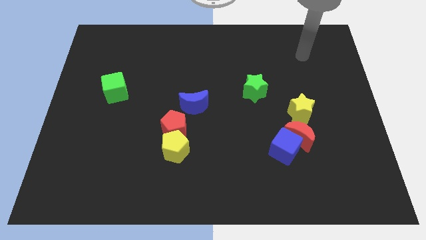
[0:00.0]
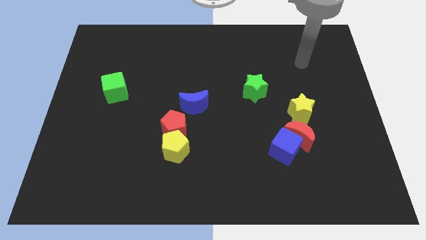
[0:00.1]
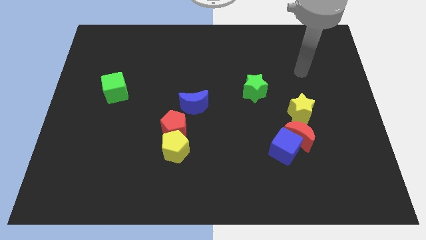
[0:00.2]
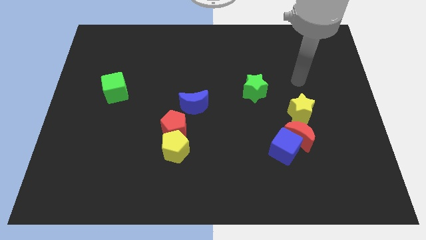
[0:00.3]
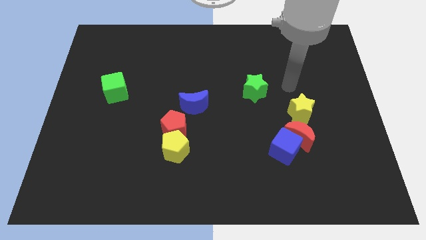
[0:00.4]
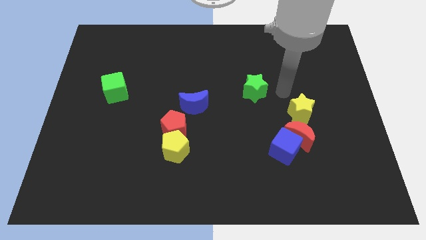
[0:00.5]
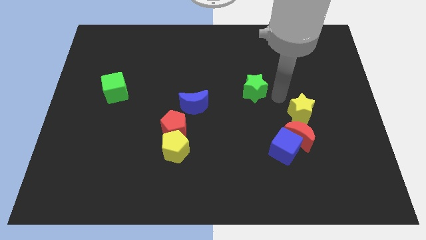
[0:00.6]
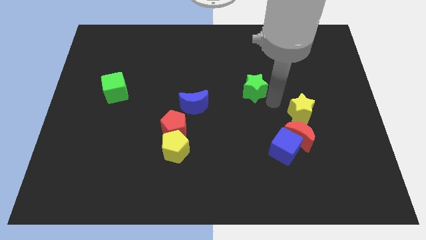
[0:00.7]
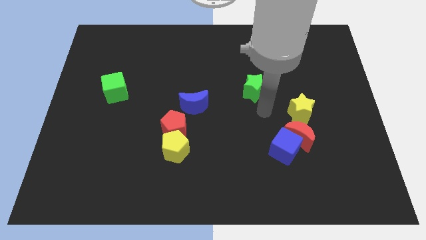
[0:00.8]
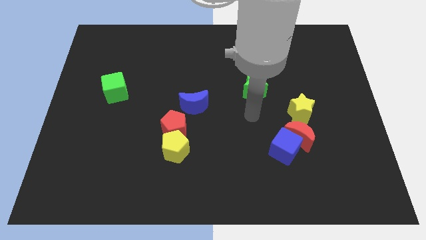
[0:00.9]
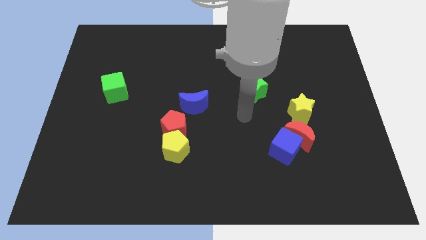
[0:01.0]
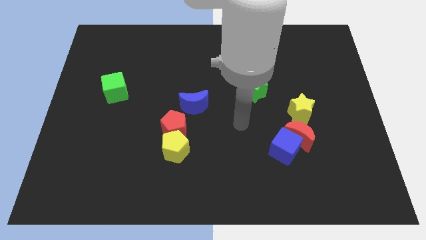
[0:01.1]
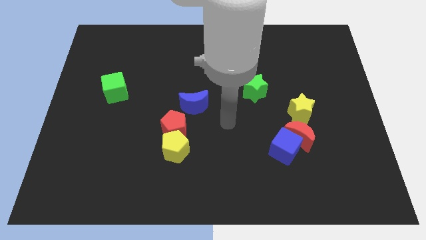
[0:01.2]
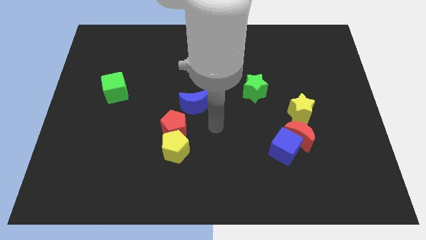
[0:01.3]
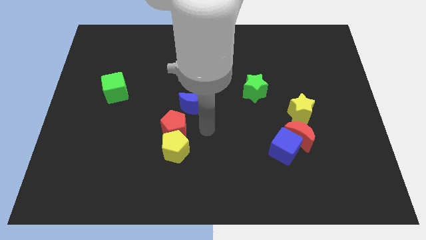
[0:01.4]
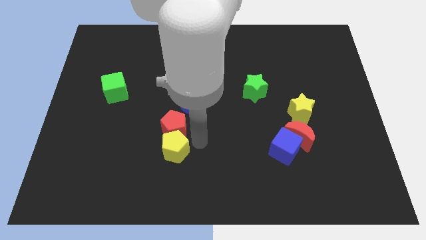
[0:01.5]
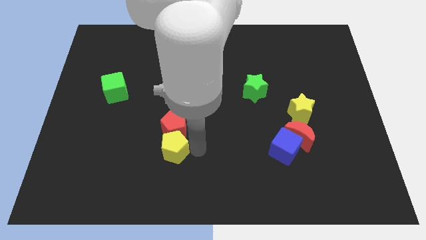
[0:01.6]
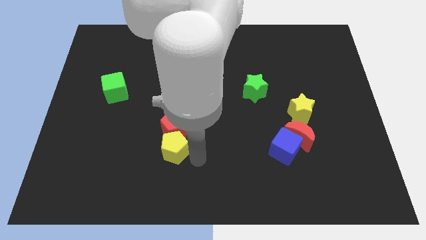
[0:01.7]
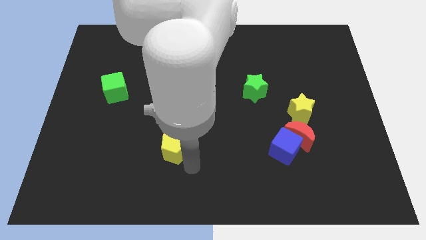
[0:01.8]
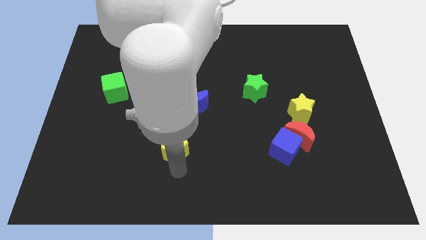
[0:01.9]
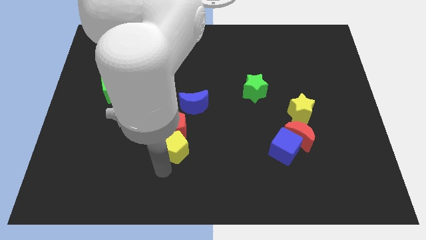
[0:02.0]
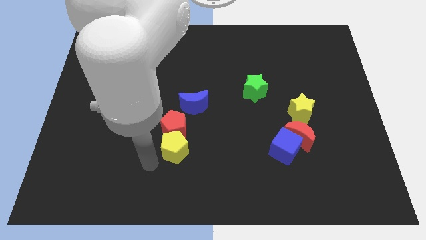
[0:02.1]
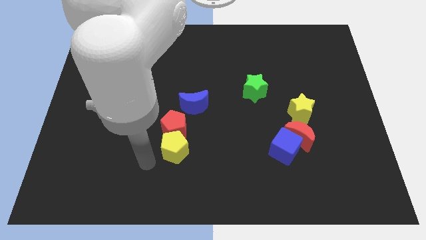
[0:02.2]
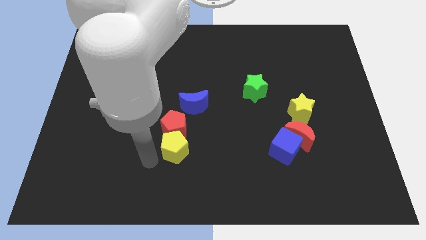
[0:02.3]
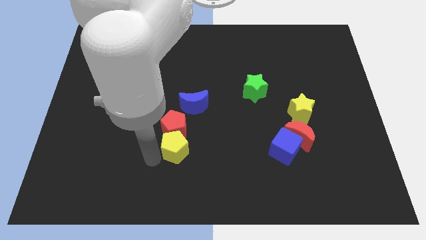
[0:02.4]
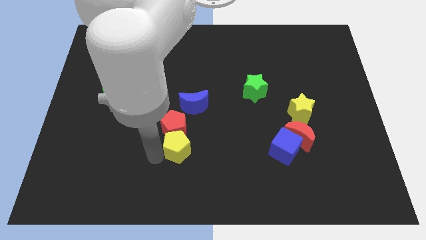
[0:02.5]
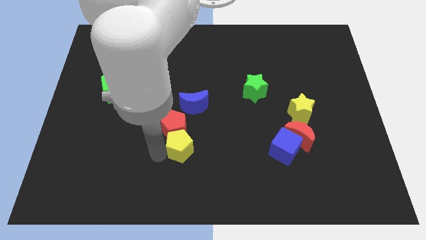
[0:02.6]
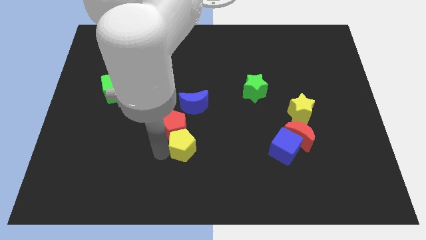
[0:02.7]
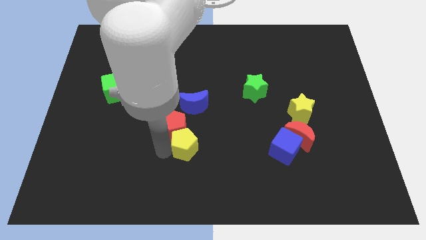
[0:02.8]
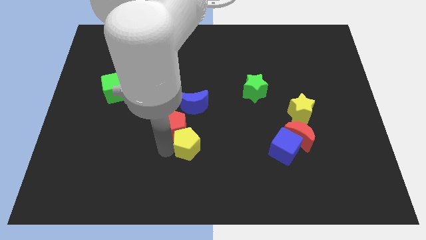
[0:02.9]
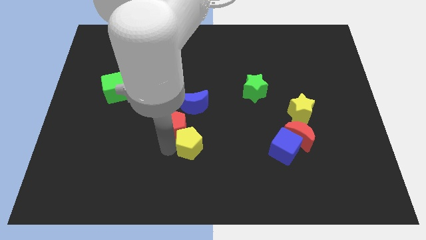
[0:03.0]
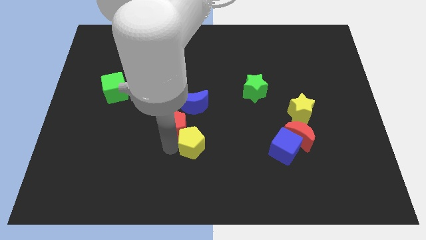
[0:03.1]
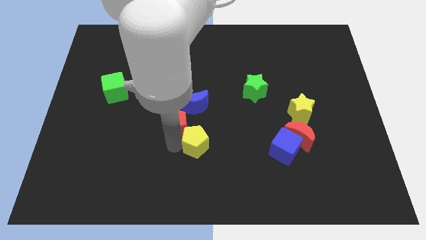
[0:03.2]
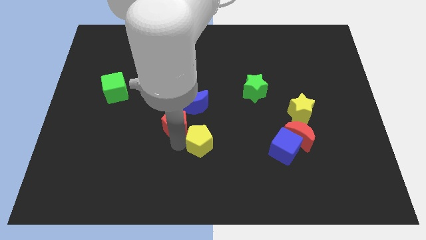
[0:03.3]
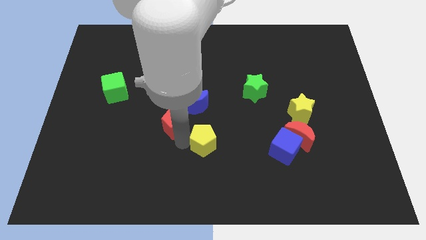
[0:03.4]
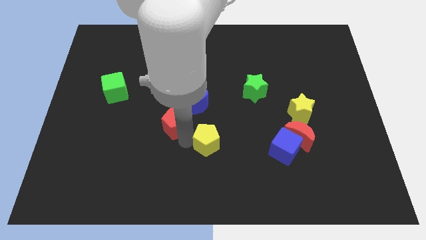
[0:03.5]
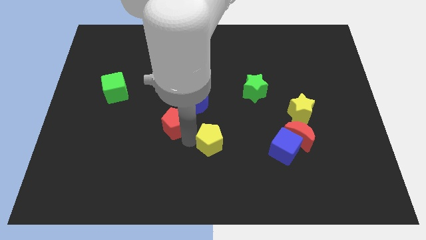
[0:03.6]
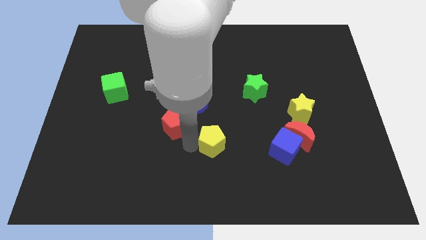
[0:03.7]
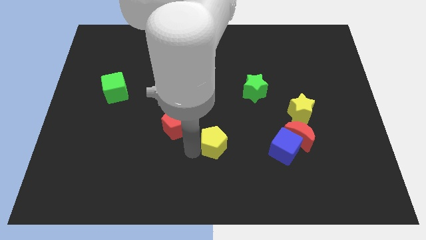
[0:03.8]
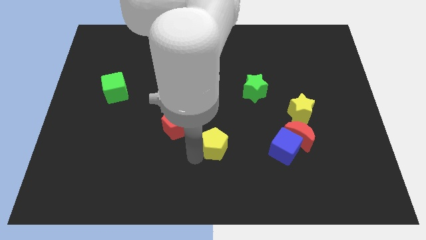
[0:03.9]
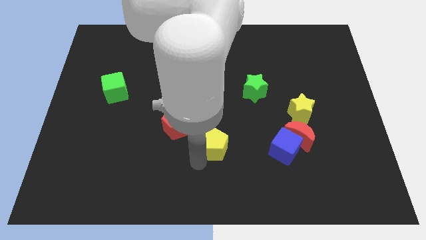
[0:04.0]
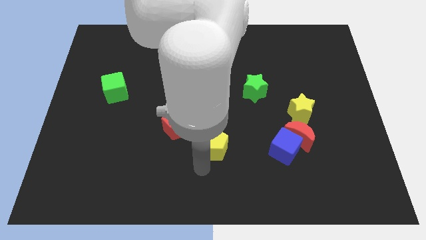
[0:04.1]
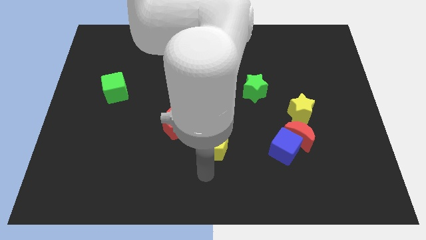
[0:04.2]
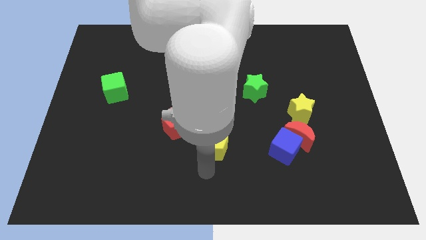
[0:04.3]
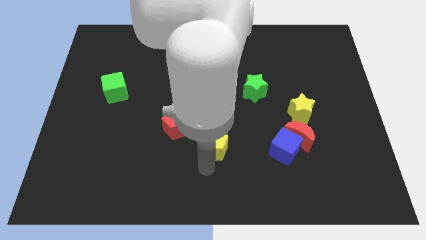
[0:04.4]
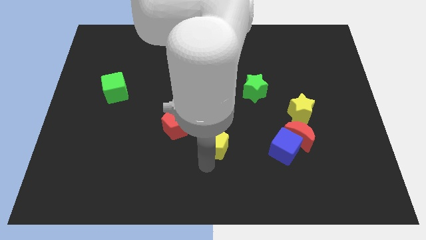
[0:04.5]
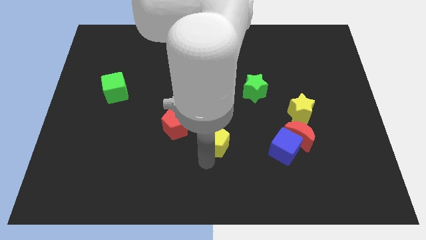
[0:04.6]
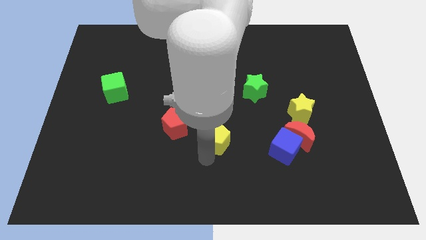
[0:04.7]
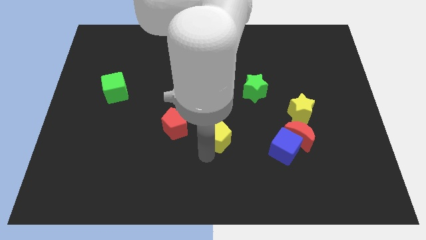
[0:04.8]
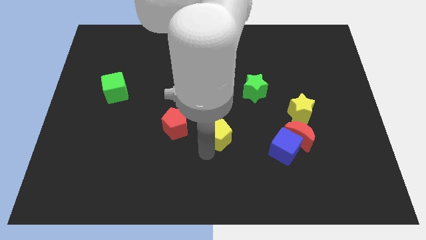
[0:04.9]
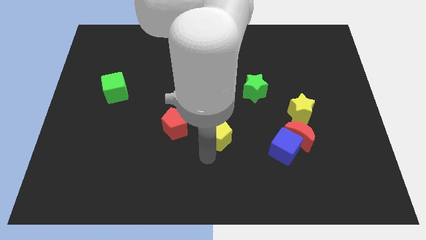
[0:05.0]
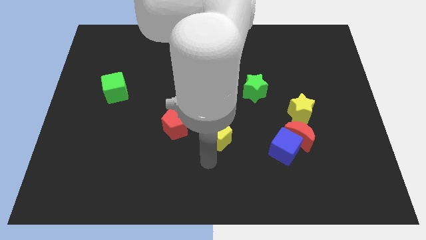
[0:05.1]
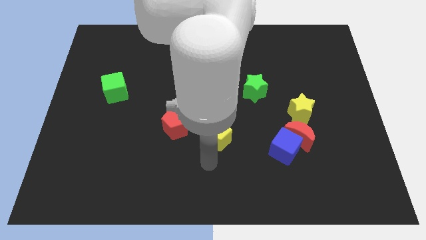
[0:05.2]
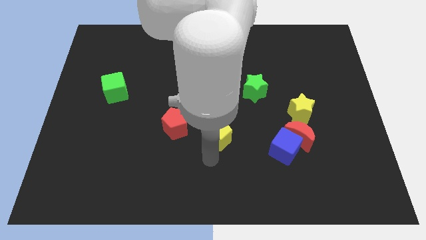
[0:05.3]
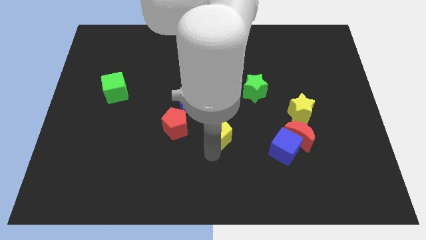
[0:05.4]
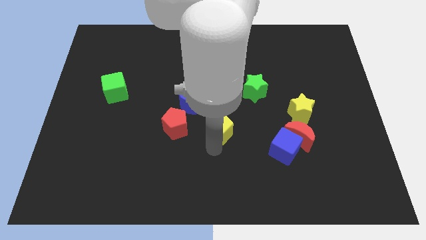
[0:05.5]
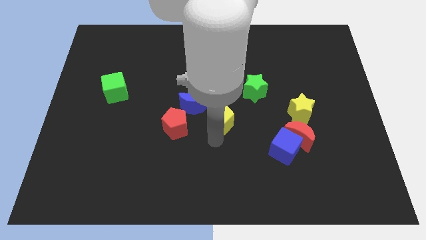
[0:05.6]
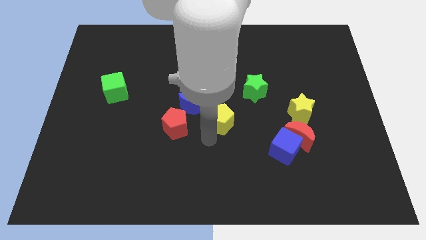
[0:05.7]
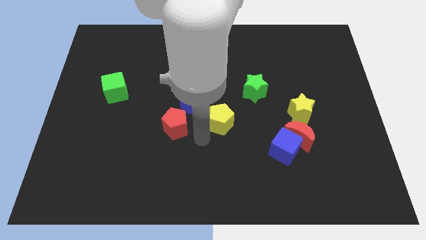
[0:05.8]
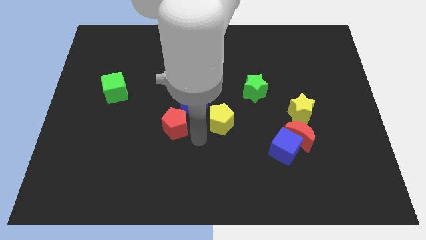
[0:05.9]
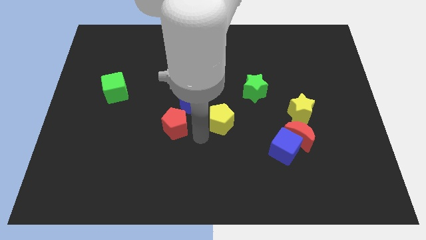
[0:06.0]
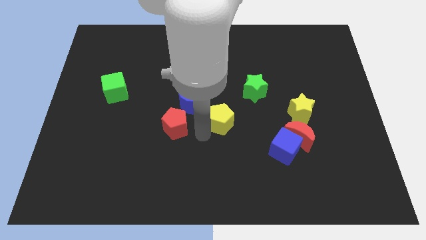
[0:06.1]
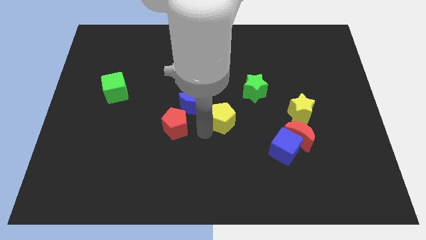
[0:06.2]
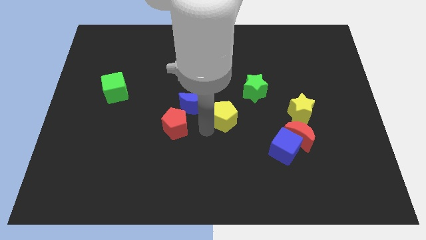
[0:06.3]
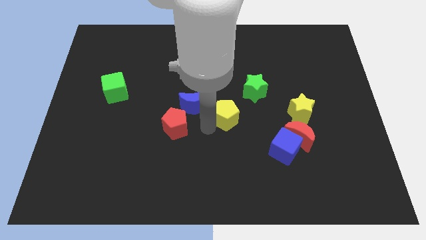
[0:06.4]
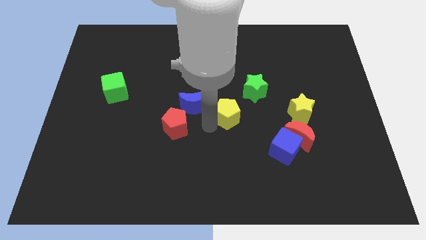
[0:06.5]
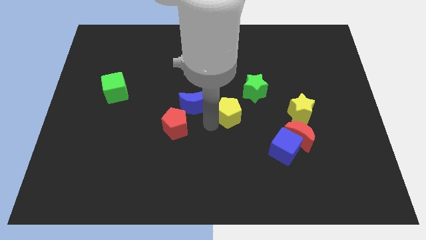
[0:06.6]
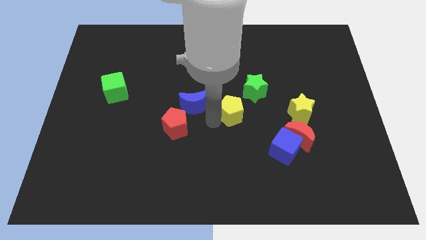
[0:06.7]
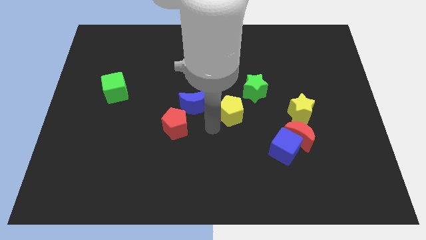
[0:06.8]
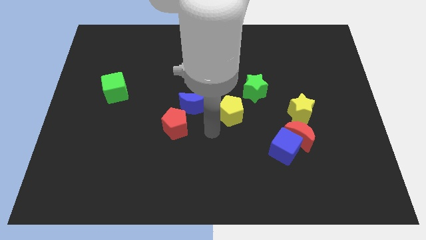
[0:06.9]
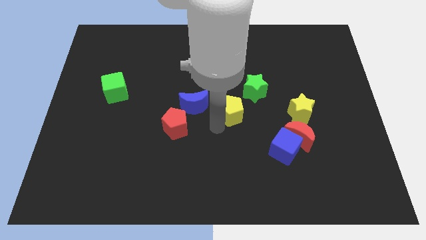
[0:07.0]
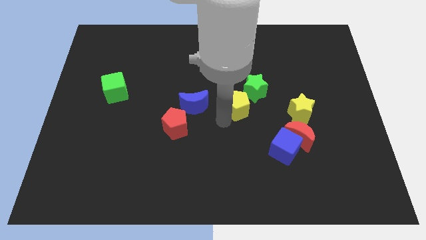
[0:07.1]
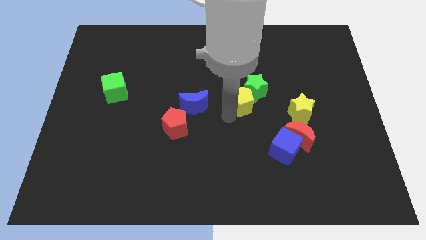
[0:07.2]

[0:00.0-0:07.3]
put the yellow pentagon to the green star
